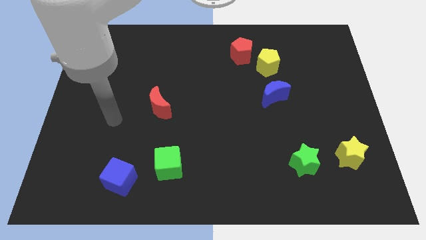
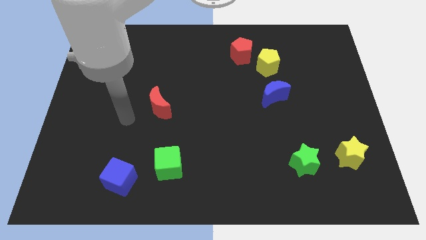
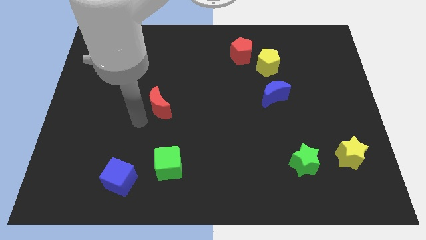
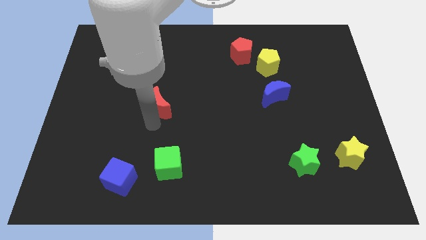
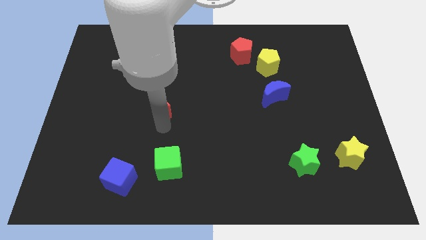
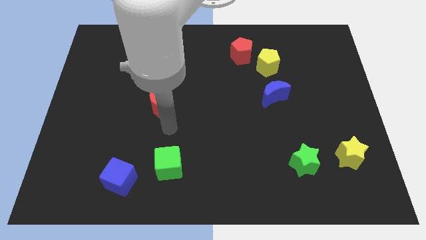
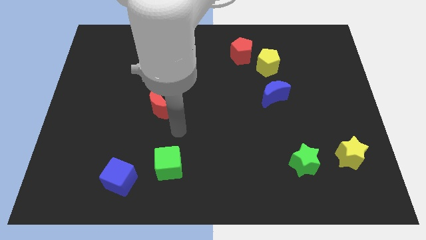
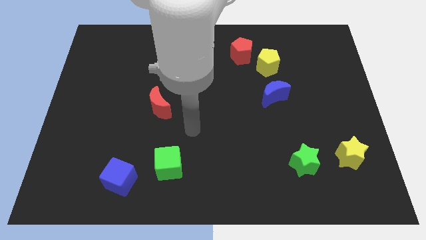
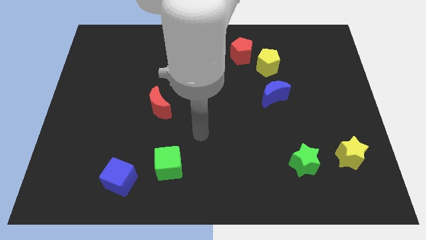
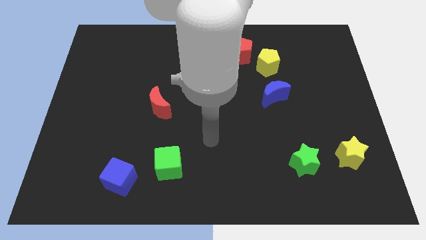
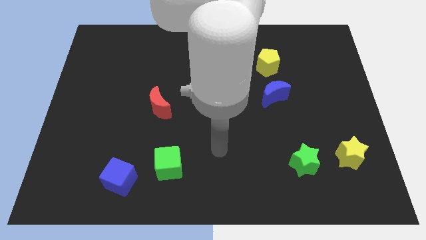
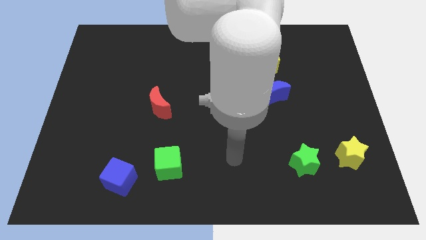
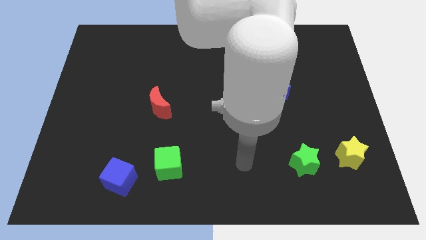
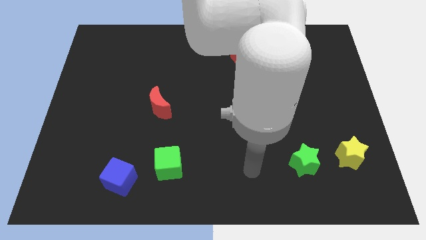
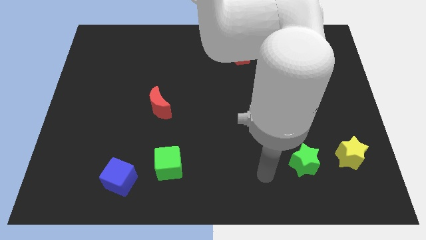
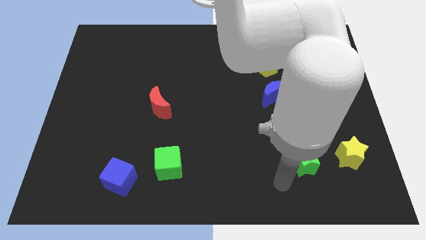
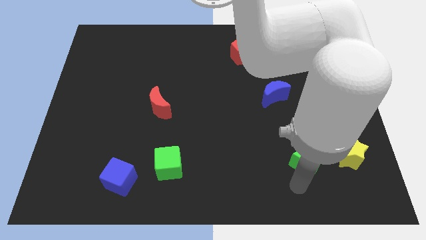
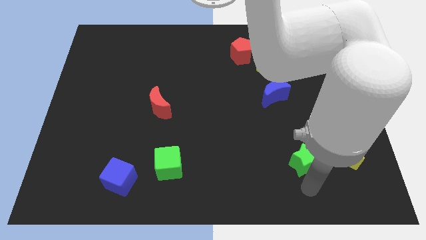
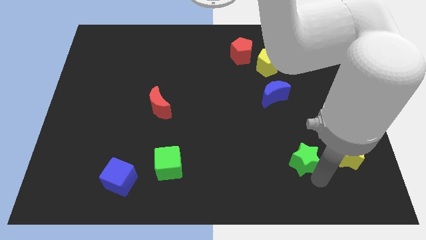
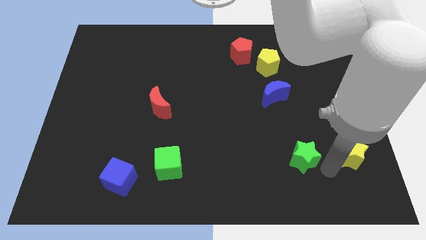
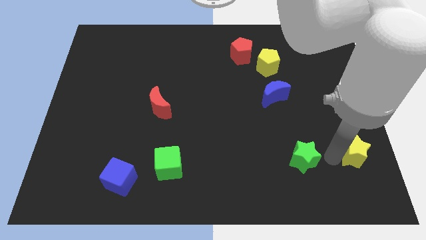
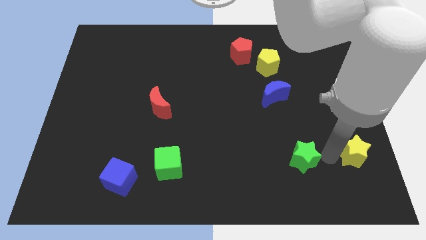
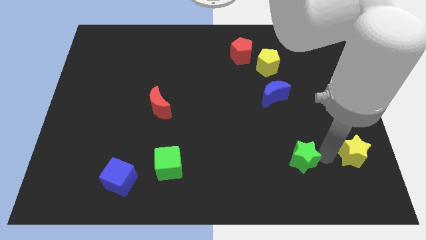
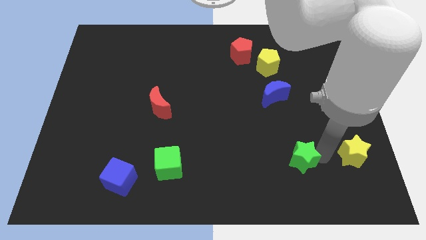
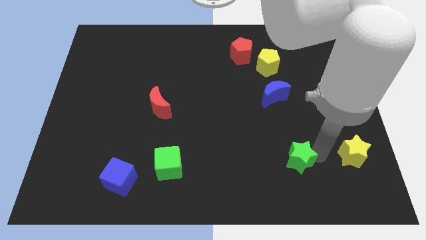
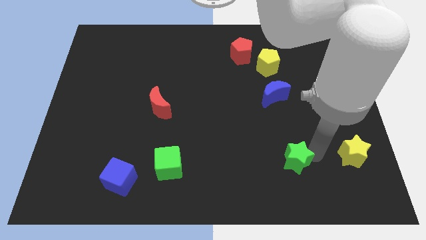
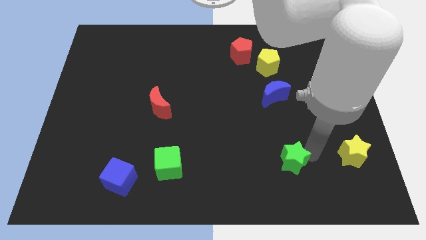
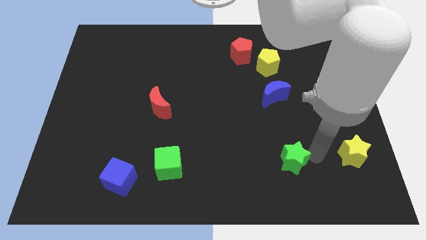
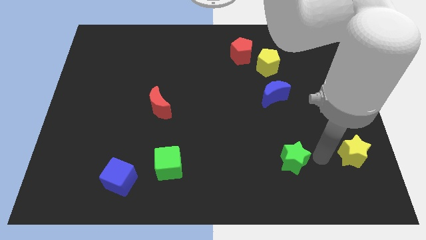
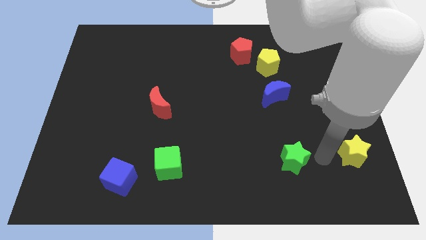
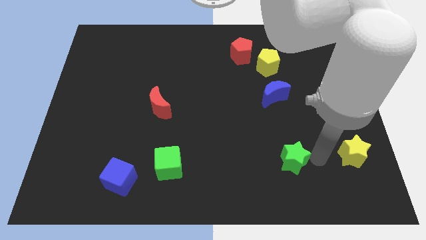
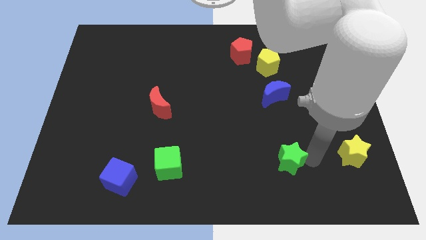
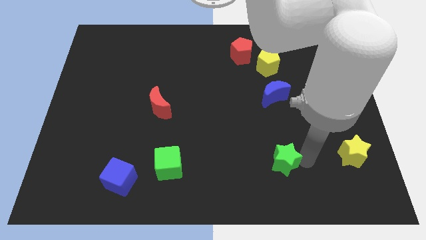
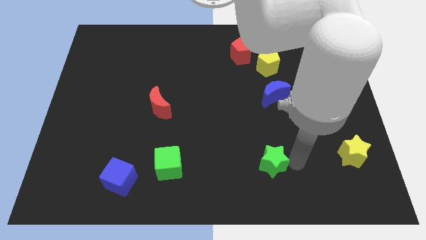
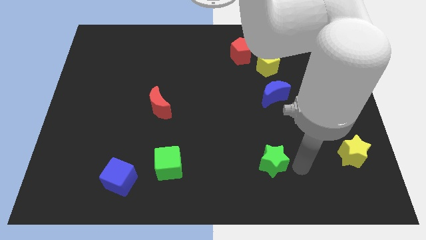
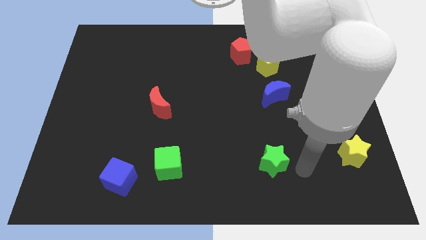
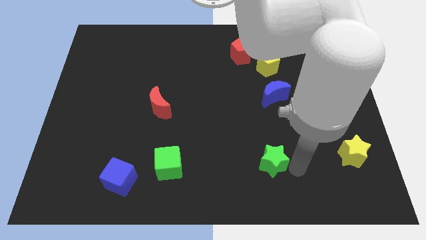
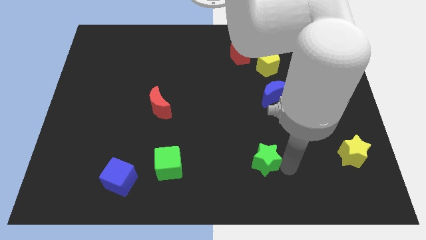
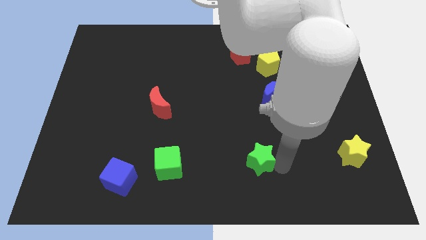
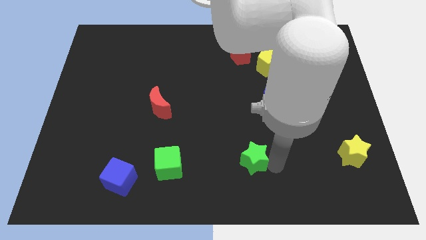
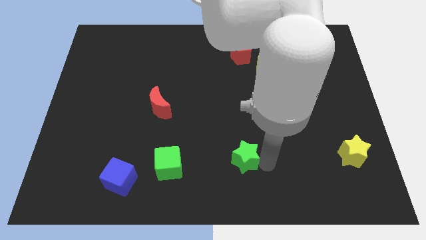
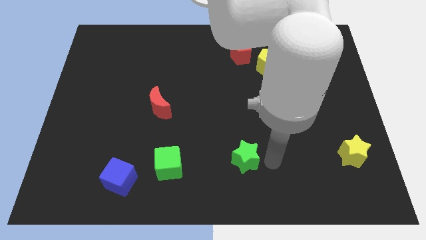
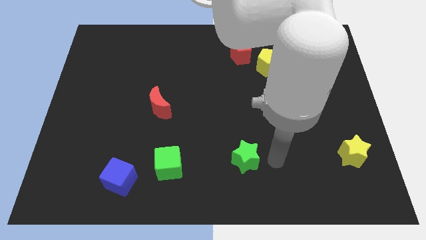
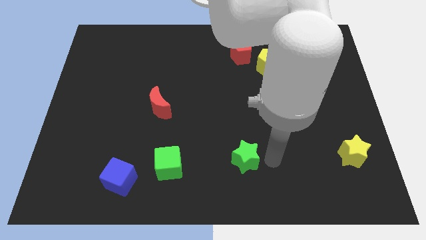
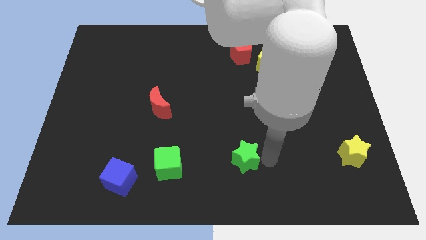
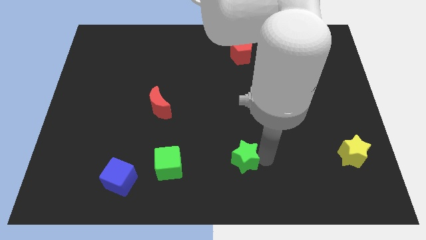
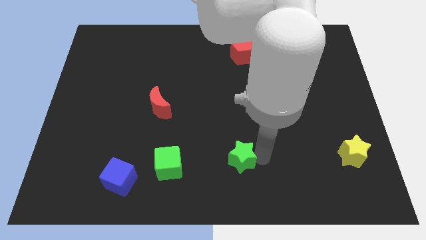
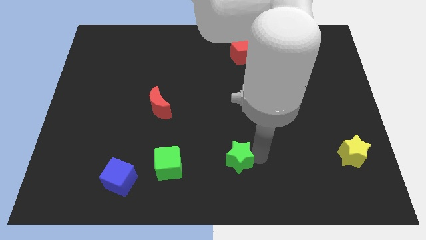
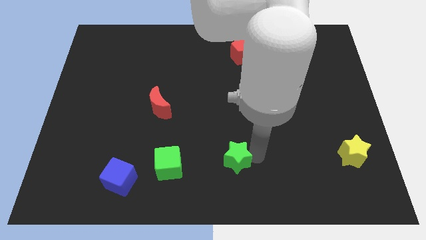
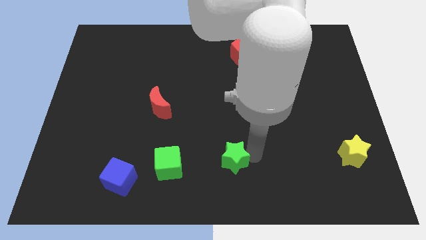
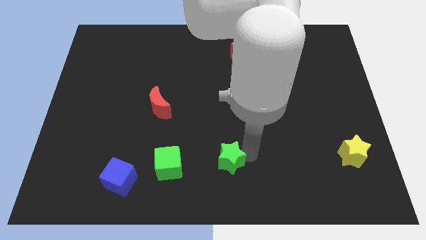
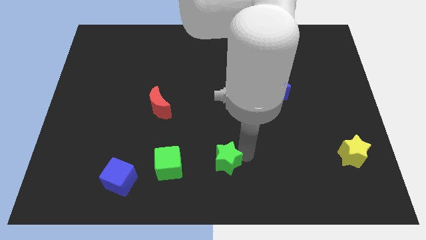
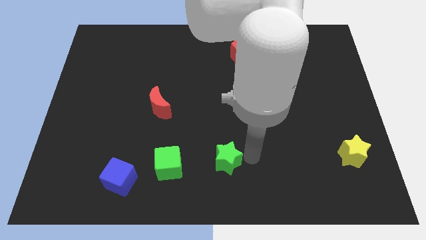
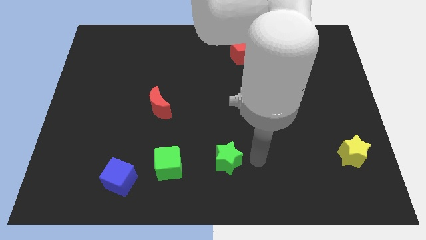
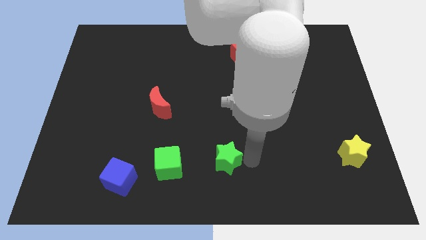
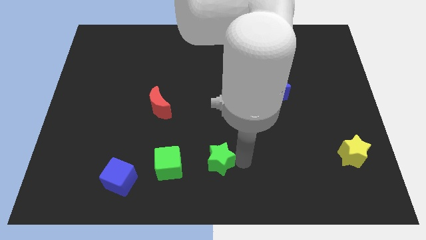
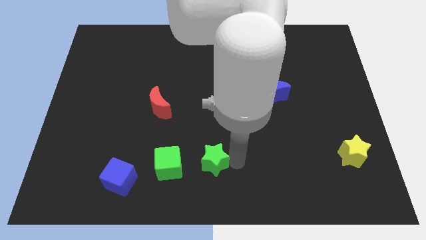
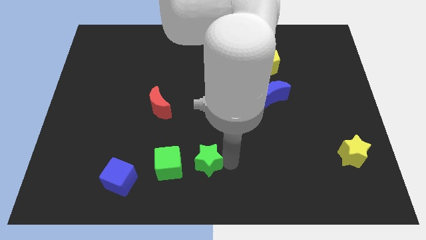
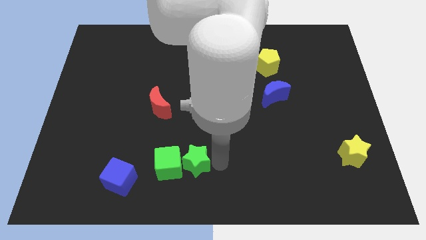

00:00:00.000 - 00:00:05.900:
slide the green star close to the green cube
